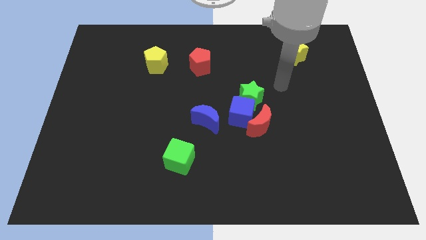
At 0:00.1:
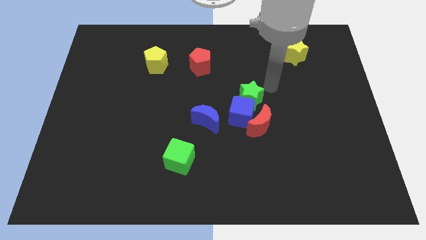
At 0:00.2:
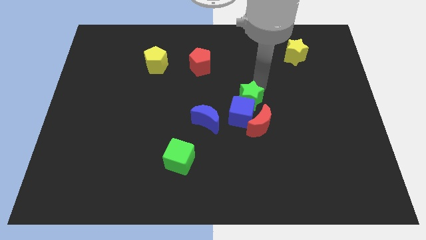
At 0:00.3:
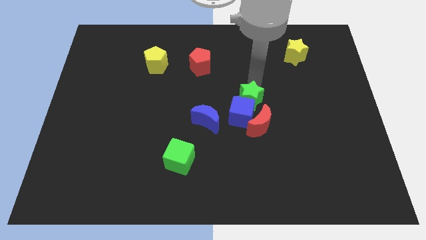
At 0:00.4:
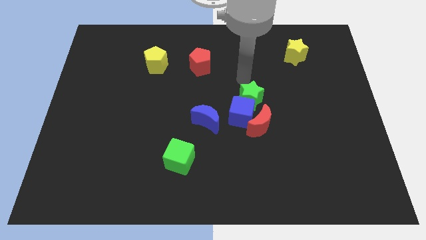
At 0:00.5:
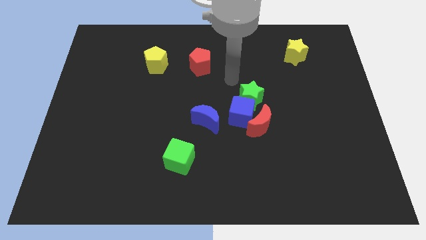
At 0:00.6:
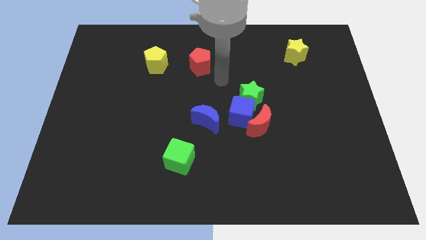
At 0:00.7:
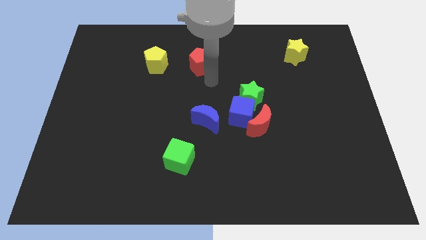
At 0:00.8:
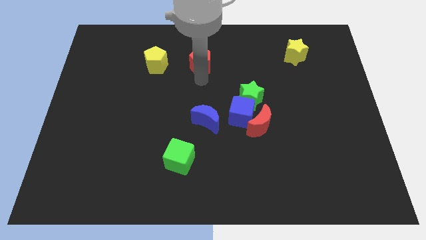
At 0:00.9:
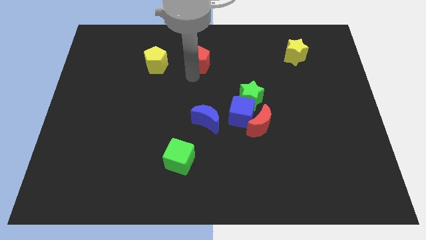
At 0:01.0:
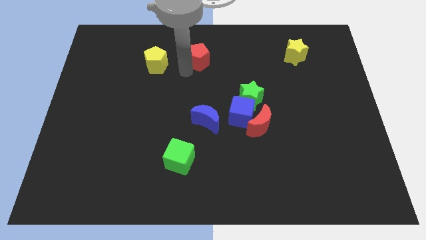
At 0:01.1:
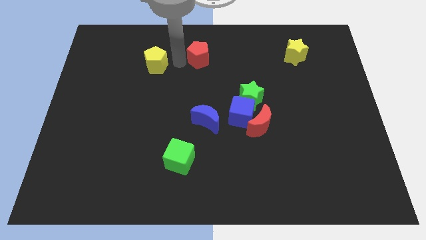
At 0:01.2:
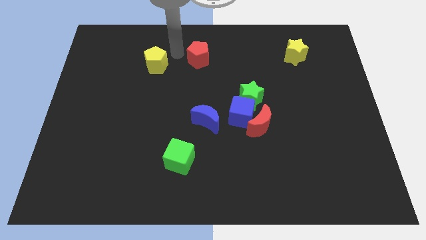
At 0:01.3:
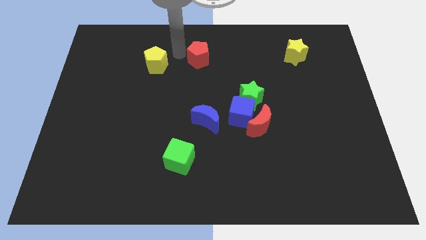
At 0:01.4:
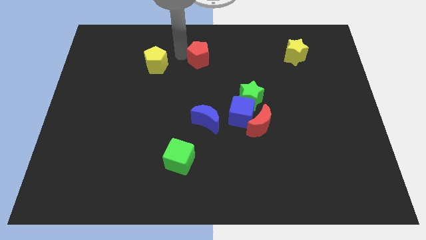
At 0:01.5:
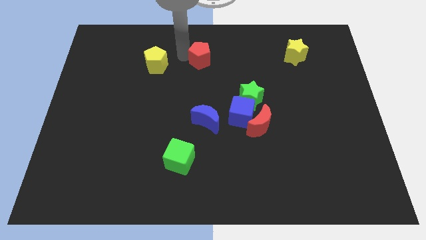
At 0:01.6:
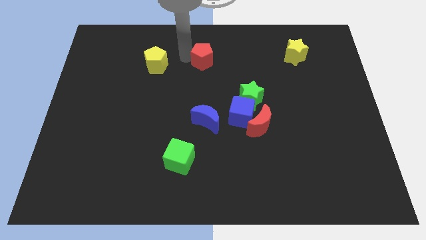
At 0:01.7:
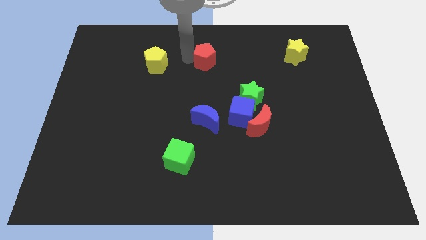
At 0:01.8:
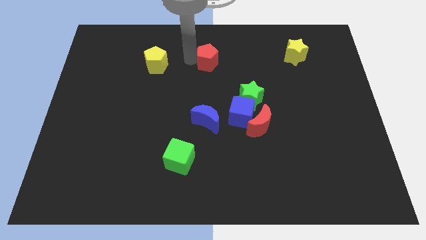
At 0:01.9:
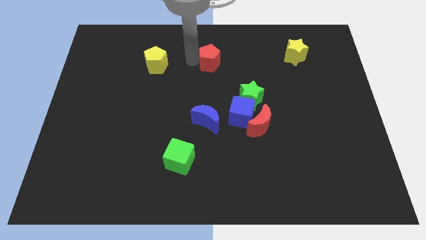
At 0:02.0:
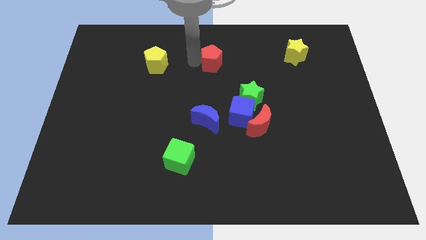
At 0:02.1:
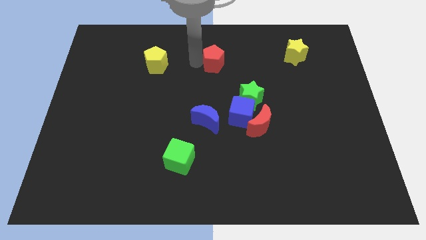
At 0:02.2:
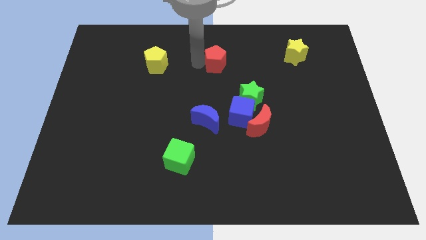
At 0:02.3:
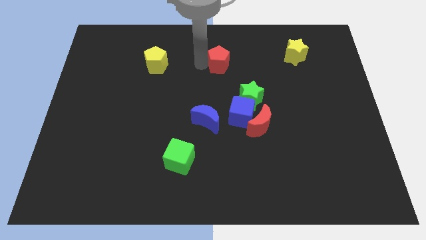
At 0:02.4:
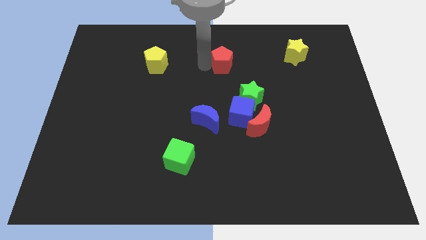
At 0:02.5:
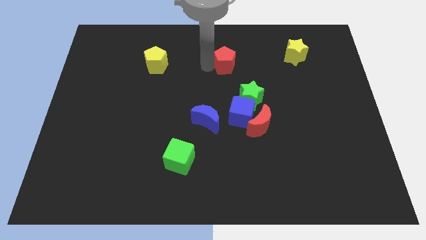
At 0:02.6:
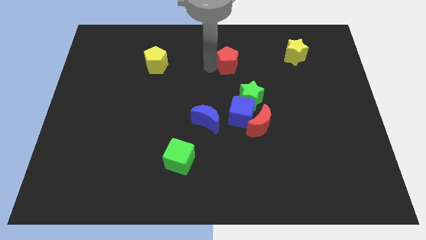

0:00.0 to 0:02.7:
push the red pentagon a little bit right

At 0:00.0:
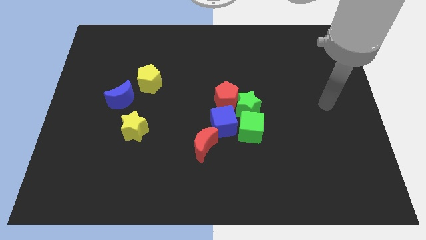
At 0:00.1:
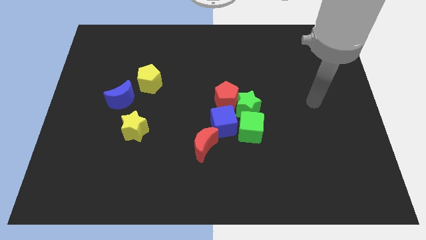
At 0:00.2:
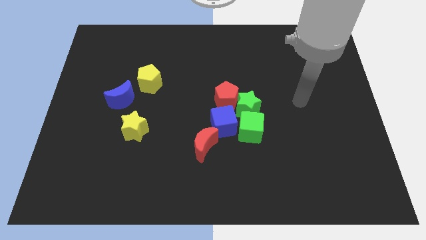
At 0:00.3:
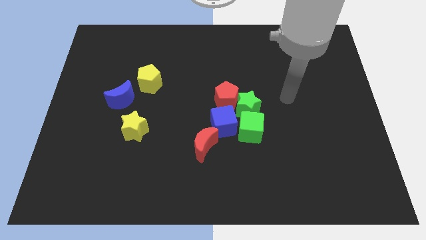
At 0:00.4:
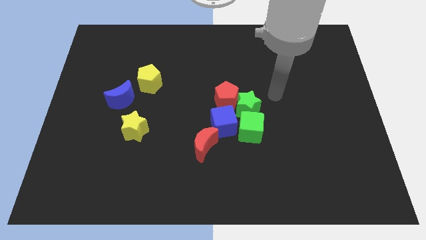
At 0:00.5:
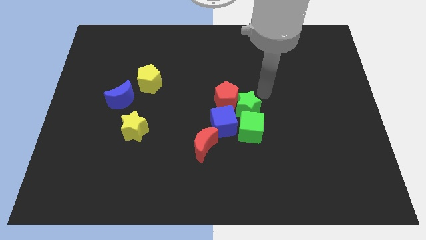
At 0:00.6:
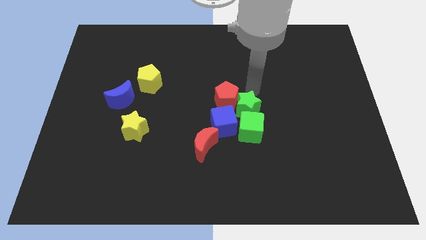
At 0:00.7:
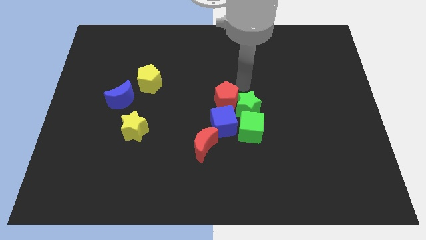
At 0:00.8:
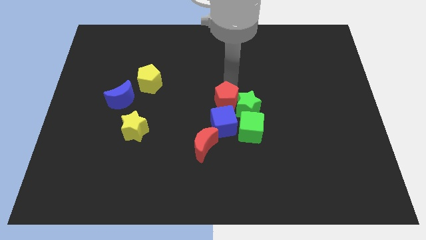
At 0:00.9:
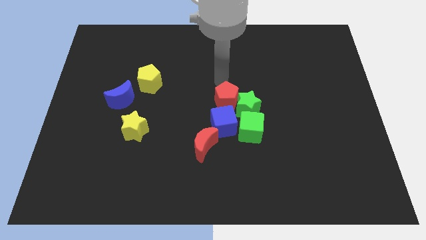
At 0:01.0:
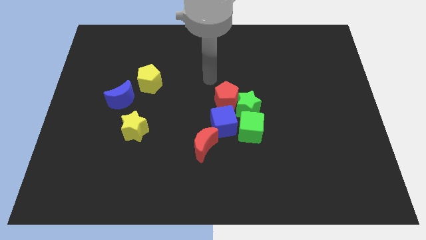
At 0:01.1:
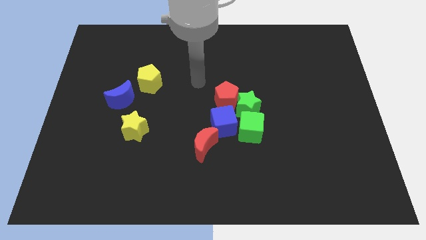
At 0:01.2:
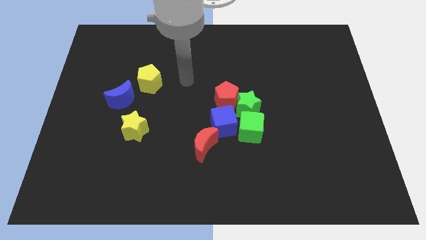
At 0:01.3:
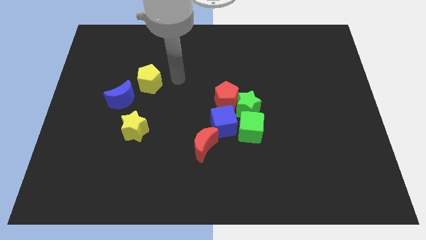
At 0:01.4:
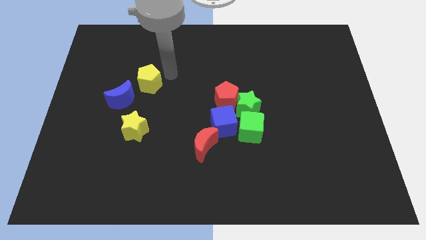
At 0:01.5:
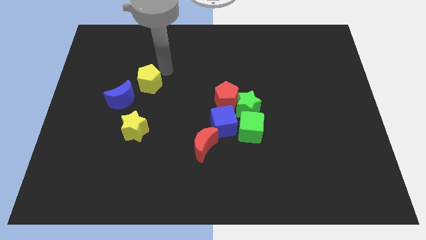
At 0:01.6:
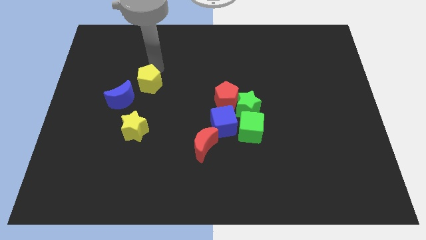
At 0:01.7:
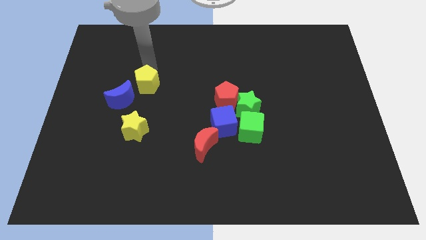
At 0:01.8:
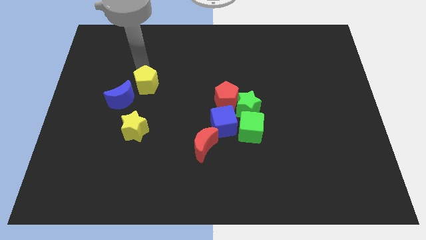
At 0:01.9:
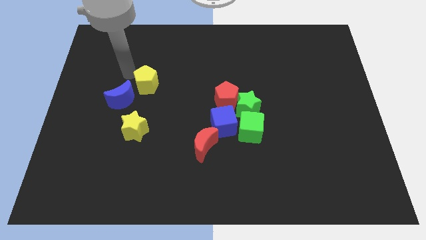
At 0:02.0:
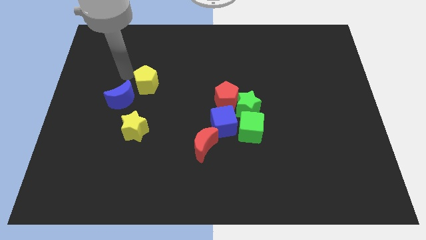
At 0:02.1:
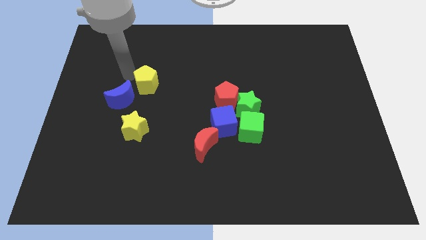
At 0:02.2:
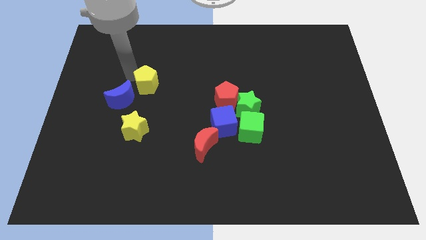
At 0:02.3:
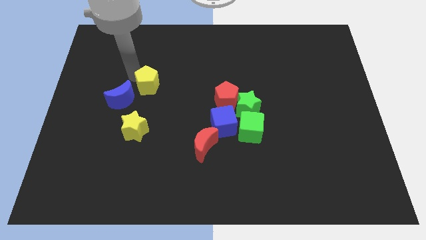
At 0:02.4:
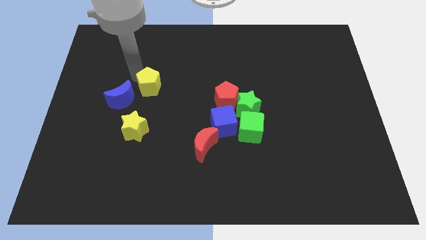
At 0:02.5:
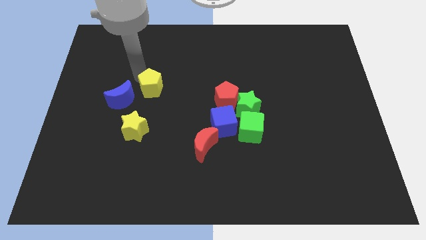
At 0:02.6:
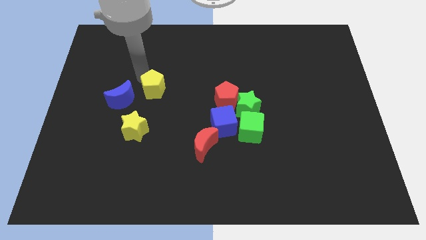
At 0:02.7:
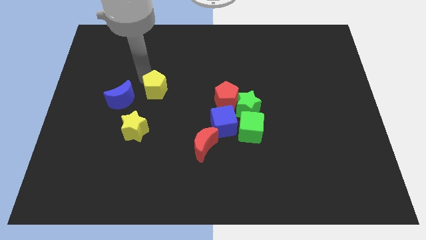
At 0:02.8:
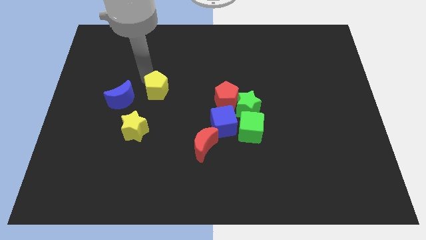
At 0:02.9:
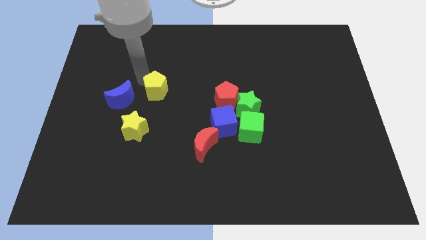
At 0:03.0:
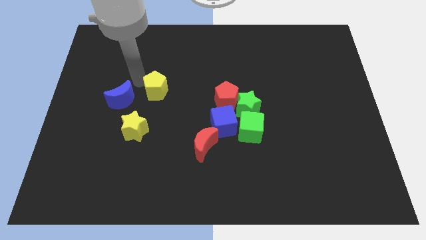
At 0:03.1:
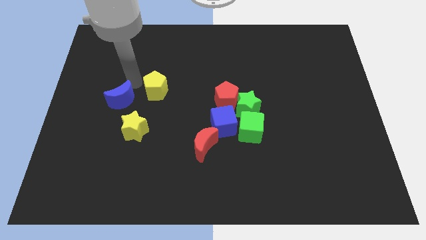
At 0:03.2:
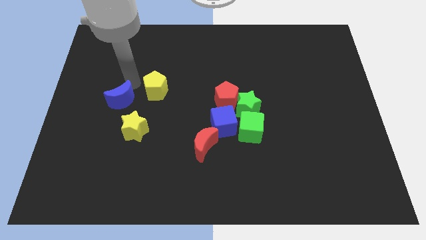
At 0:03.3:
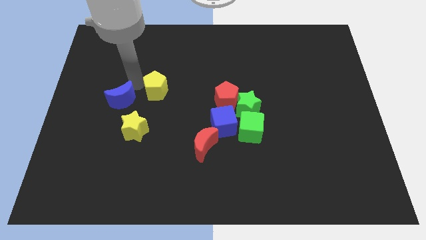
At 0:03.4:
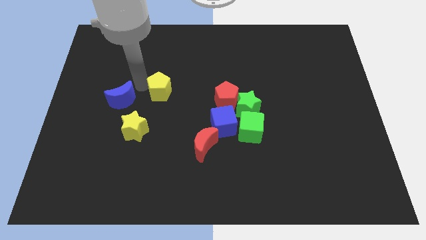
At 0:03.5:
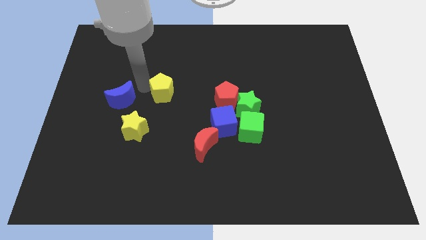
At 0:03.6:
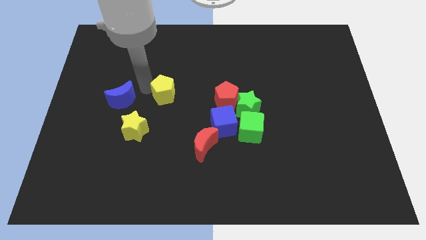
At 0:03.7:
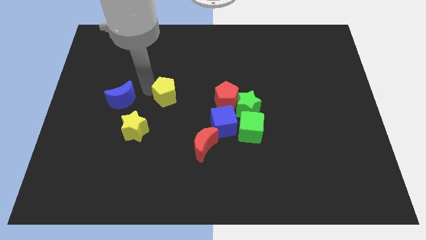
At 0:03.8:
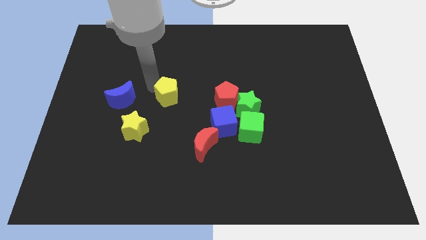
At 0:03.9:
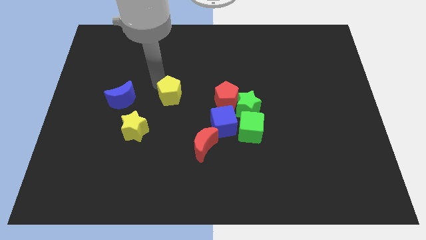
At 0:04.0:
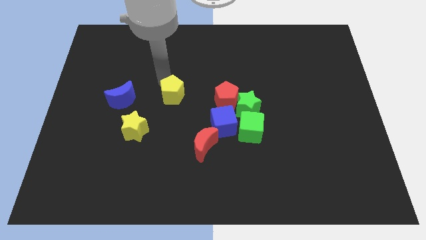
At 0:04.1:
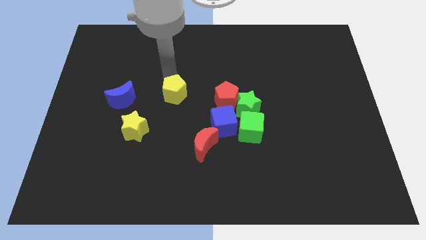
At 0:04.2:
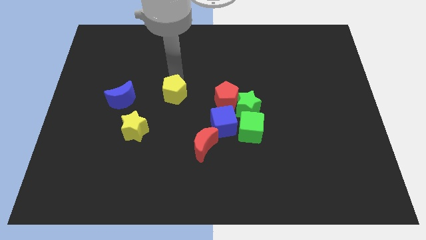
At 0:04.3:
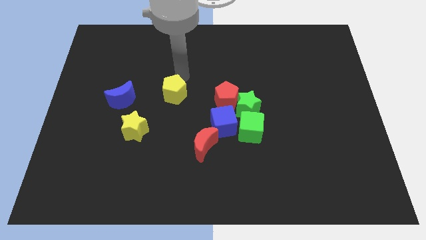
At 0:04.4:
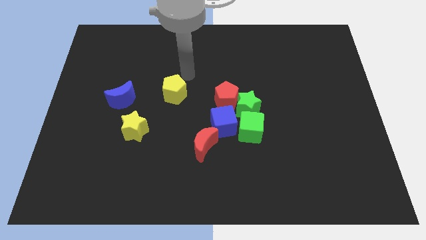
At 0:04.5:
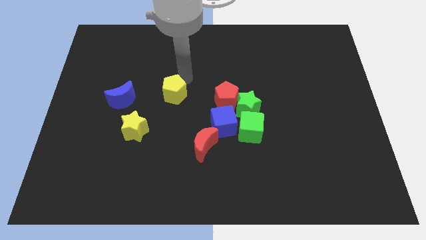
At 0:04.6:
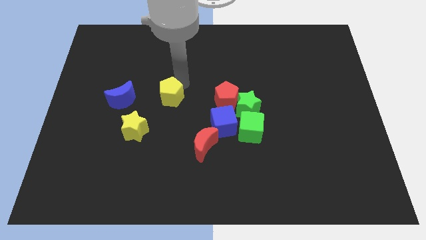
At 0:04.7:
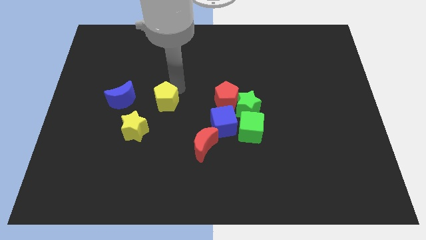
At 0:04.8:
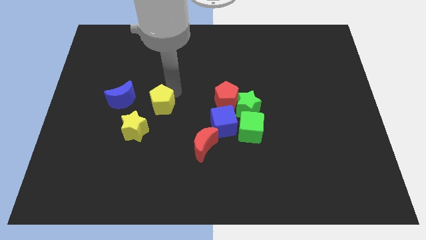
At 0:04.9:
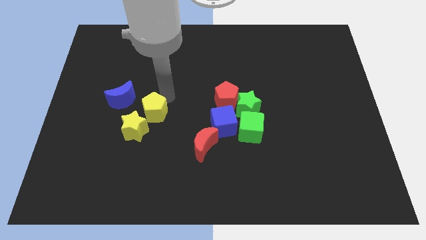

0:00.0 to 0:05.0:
push the yellow pentagon a little bit downwards

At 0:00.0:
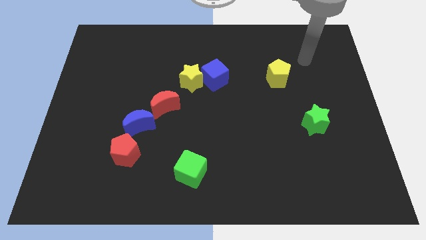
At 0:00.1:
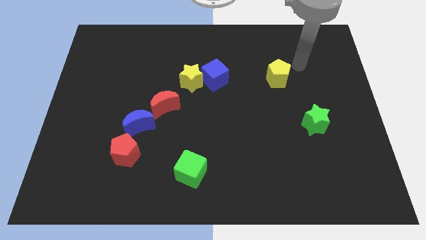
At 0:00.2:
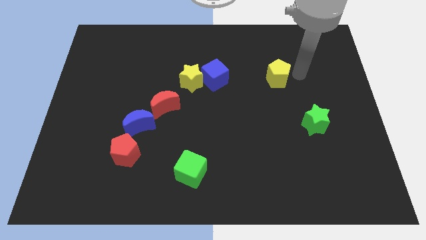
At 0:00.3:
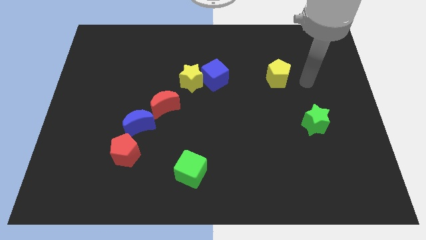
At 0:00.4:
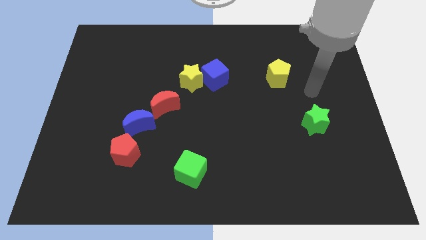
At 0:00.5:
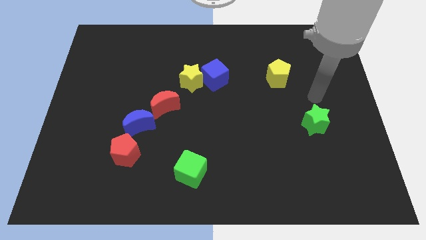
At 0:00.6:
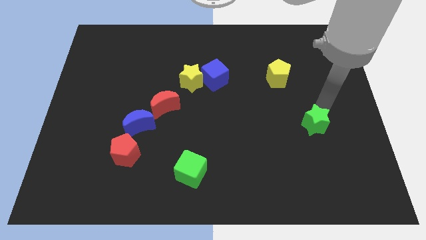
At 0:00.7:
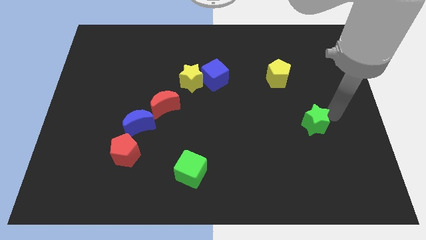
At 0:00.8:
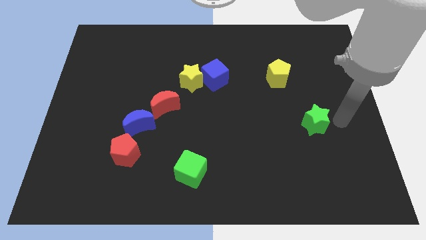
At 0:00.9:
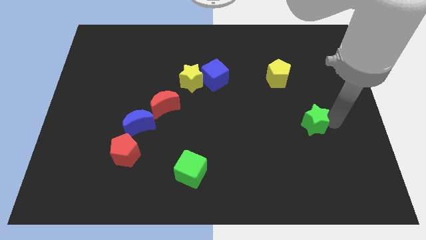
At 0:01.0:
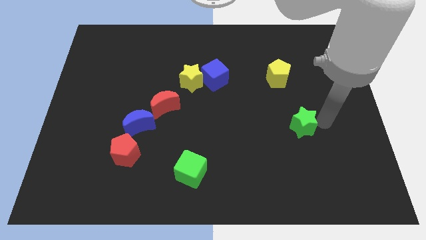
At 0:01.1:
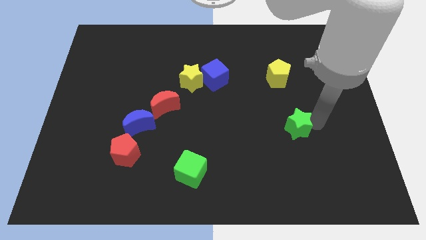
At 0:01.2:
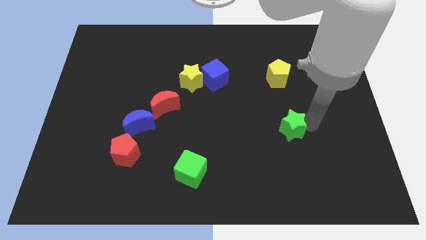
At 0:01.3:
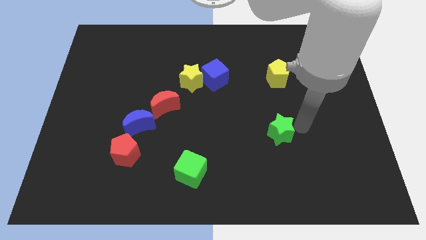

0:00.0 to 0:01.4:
slide the green star a little to the left
